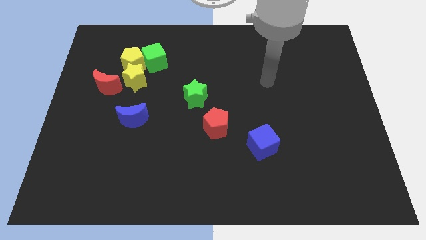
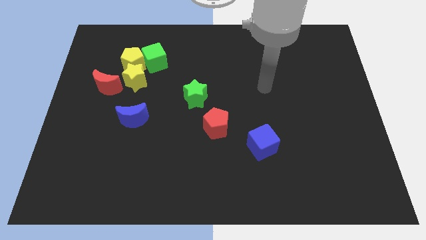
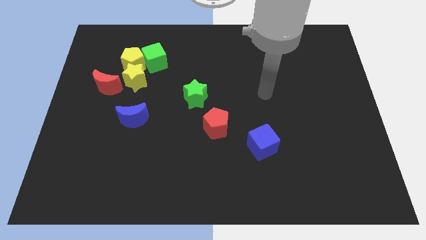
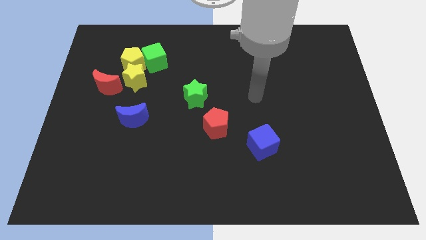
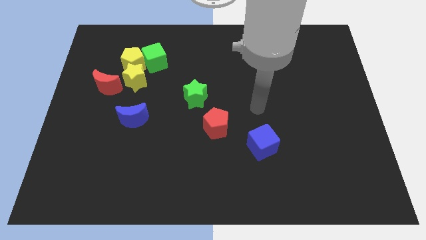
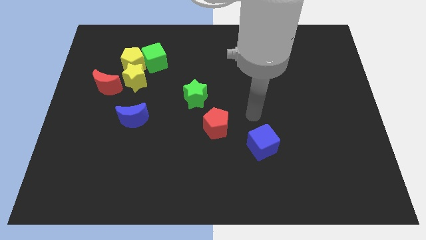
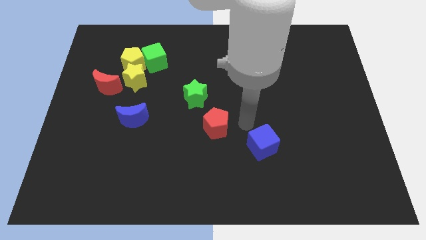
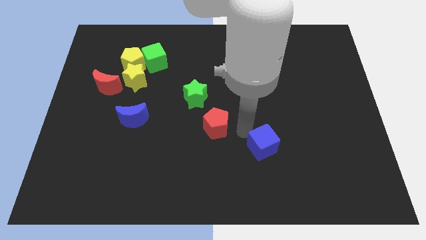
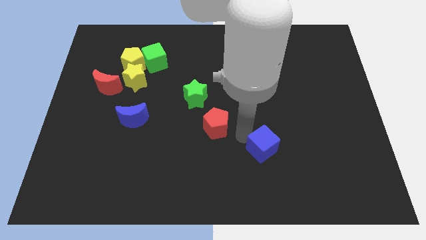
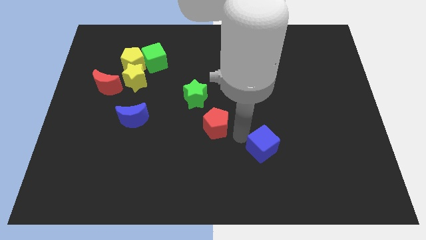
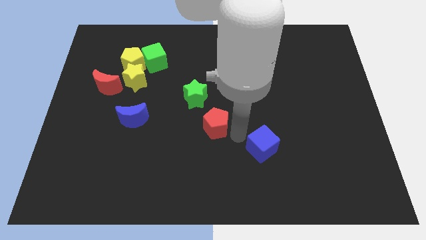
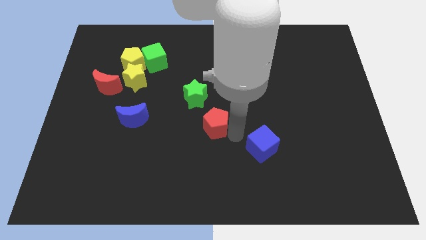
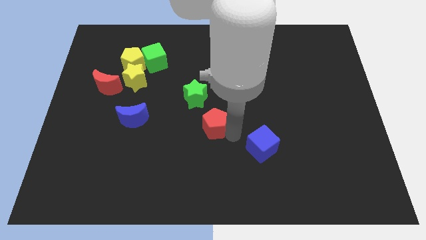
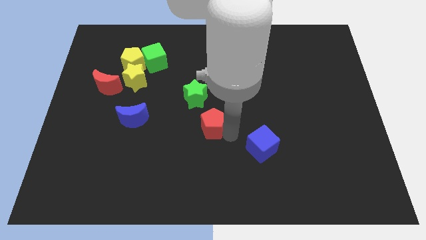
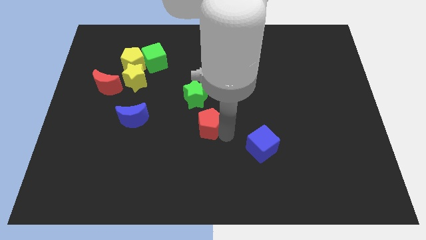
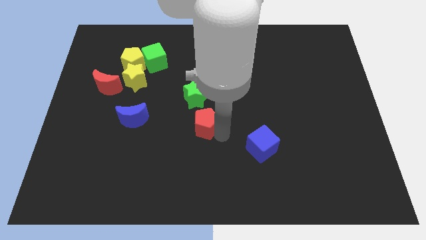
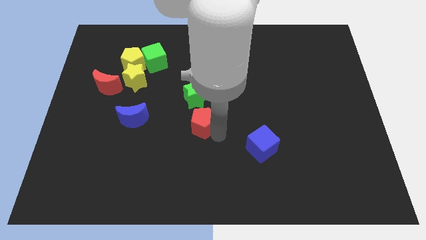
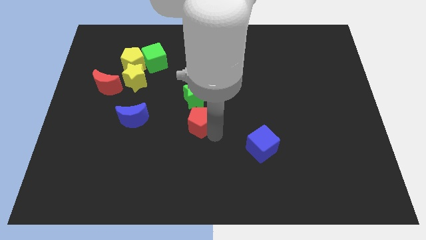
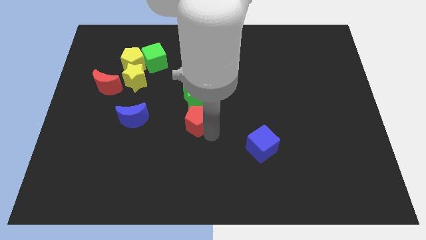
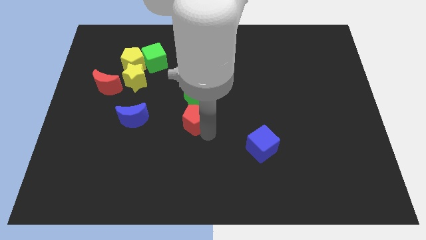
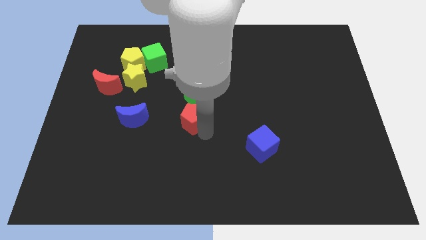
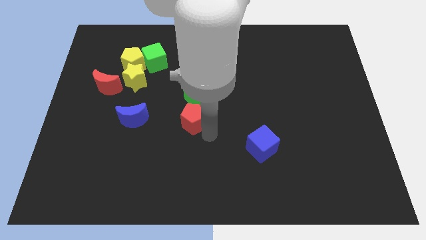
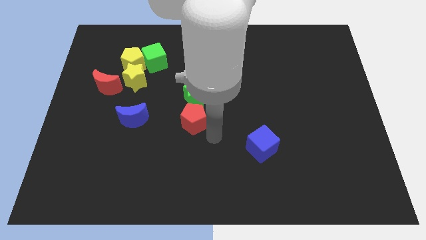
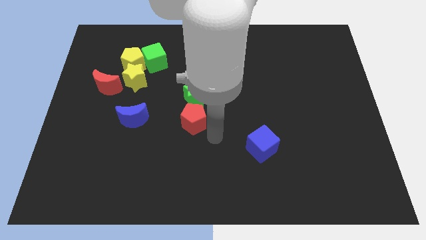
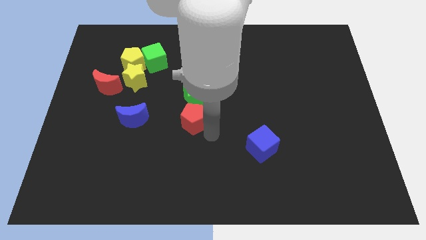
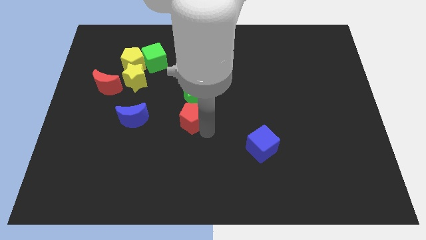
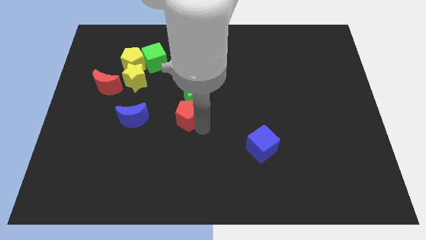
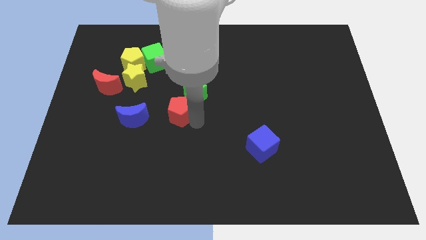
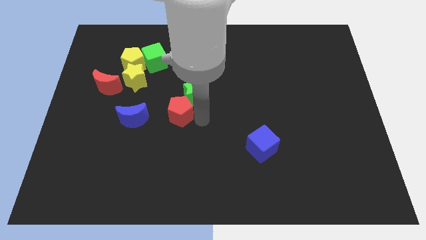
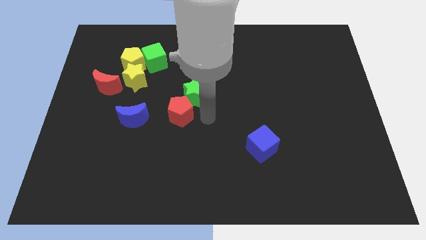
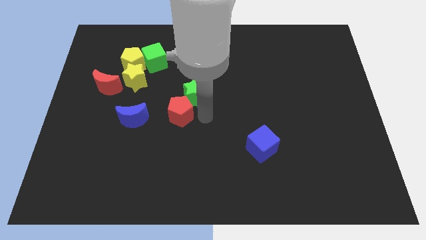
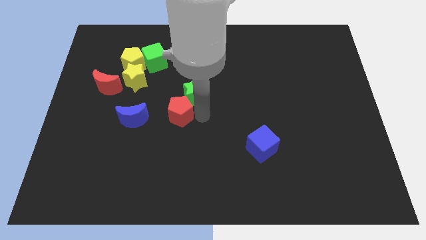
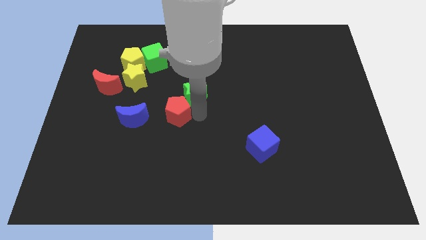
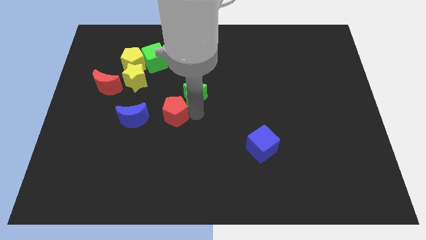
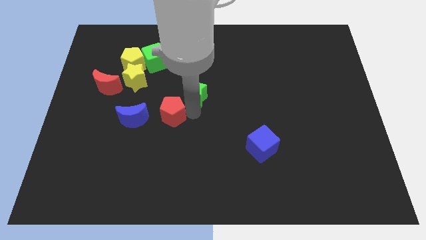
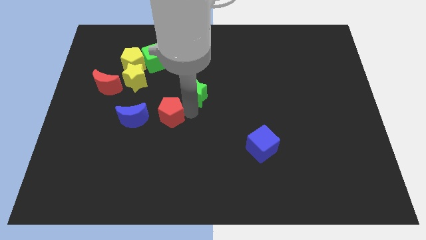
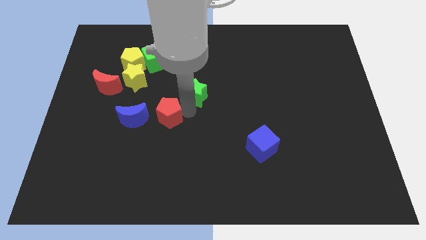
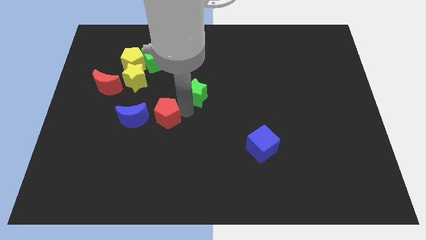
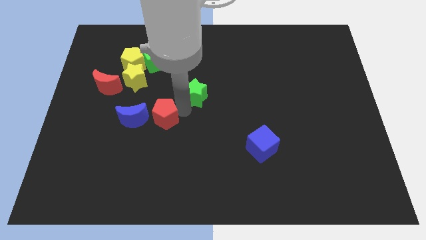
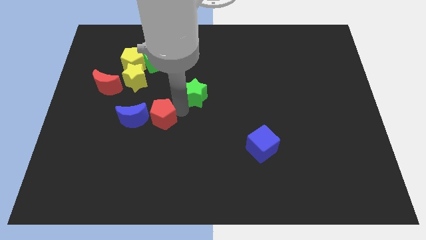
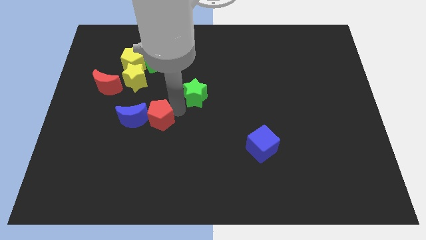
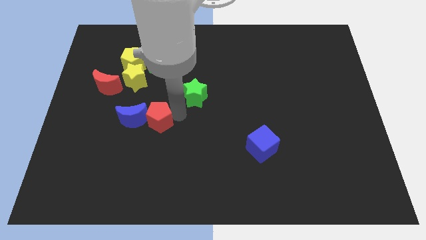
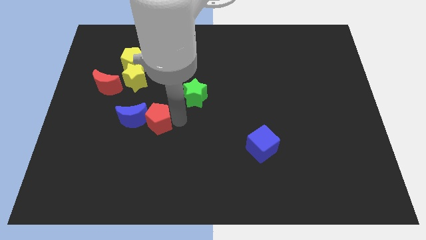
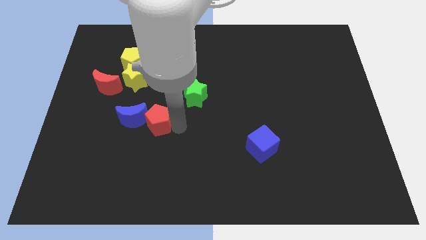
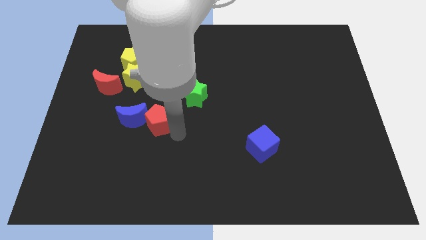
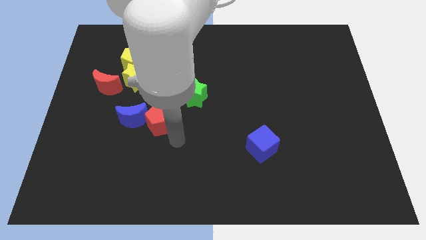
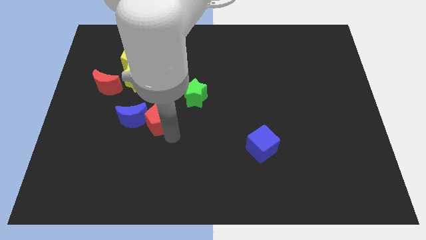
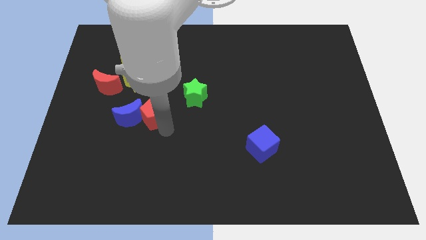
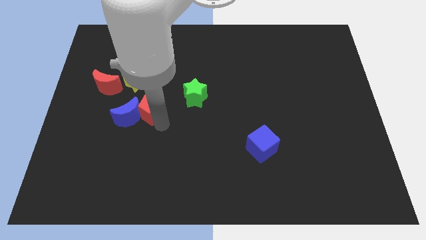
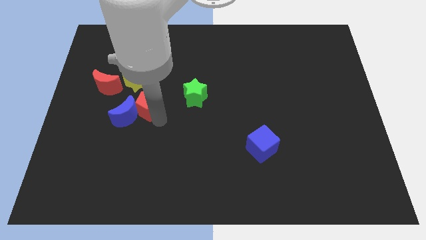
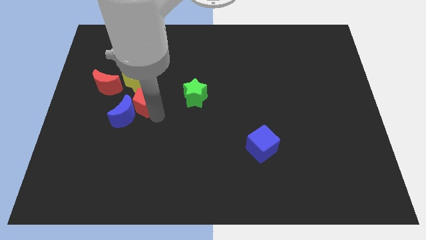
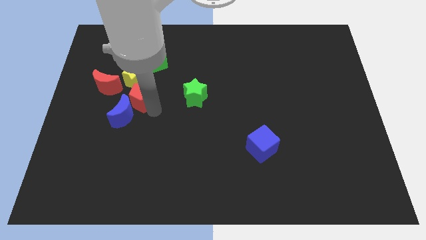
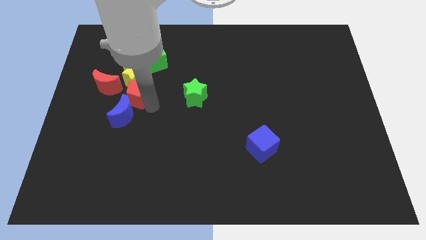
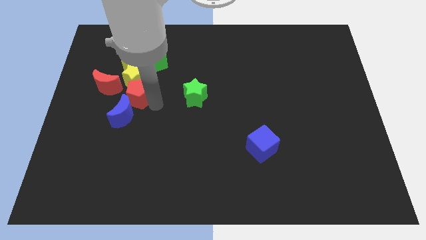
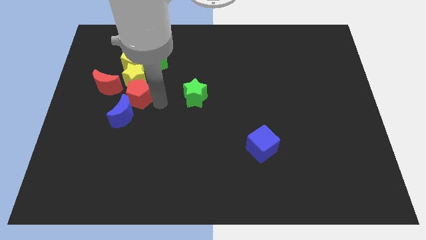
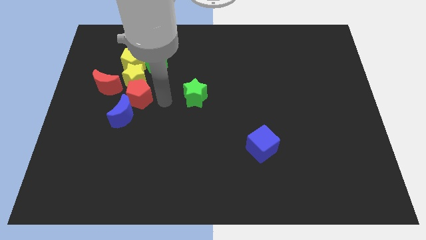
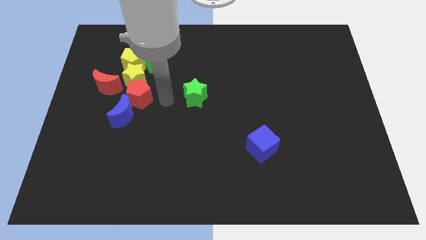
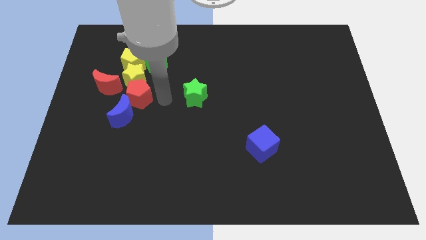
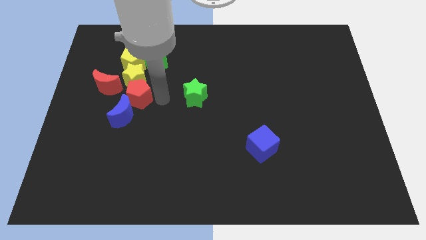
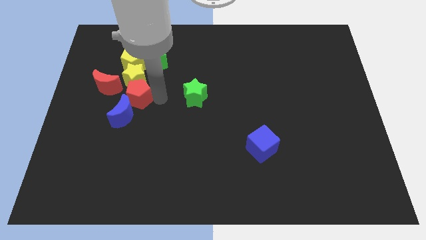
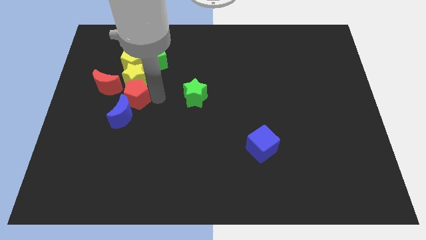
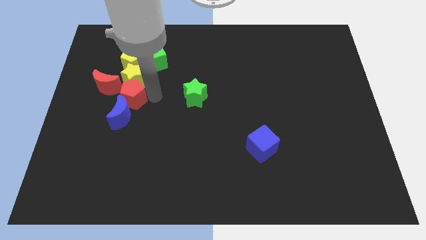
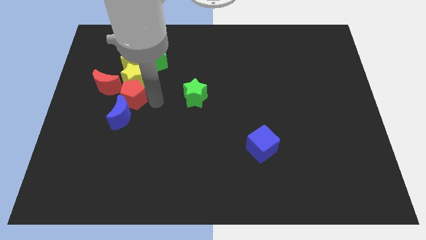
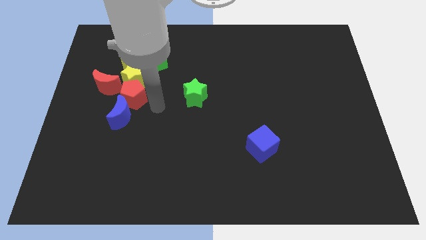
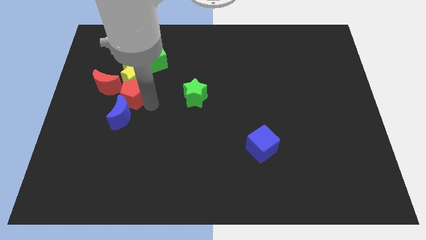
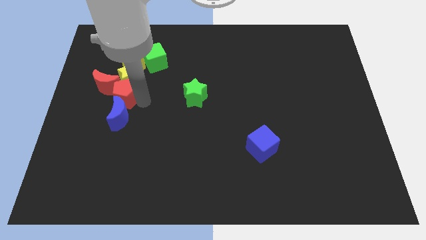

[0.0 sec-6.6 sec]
slide the red pentagon towards the red moon
